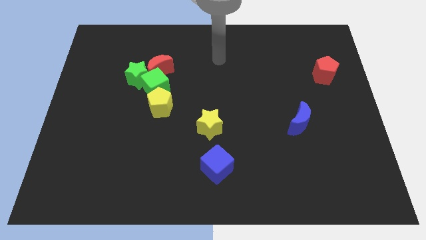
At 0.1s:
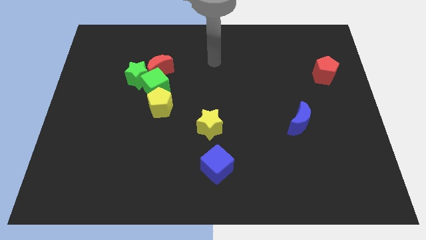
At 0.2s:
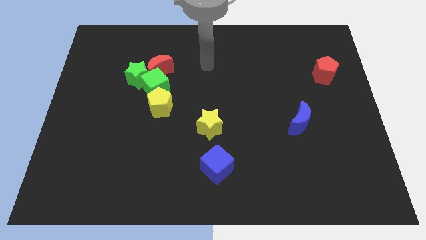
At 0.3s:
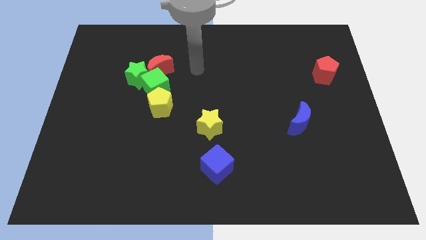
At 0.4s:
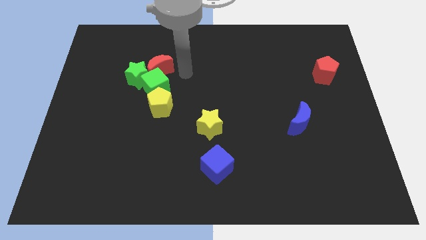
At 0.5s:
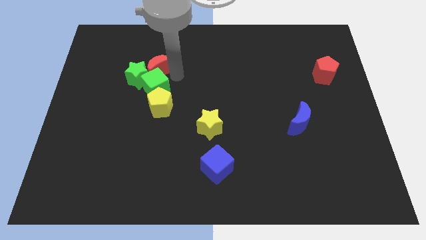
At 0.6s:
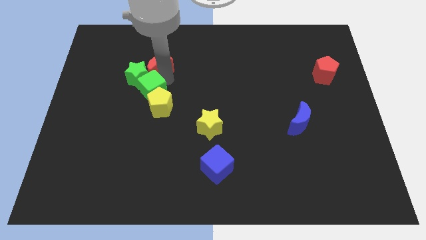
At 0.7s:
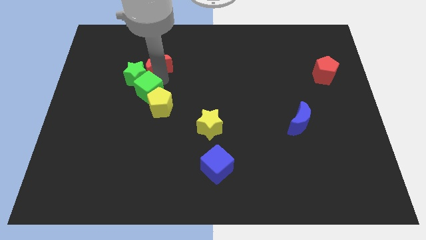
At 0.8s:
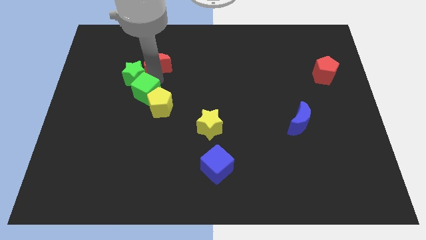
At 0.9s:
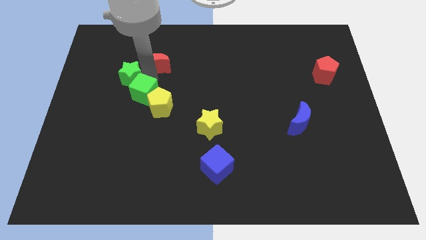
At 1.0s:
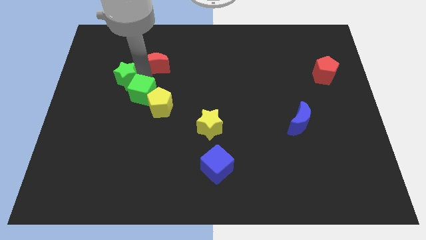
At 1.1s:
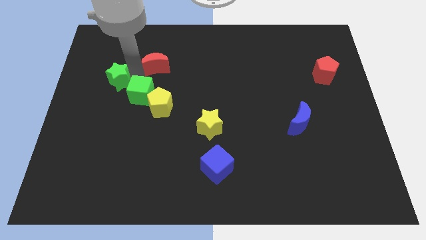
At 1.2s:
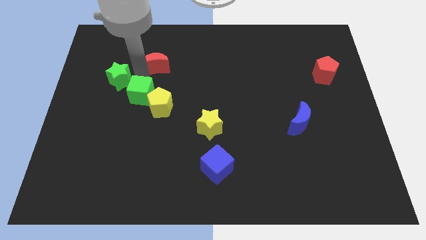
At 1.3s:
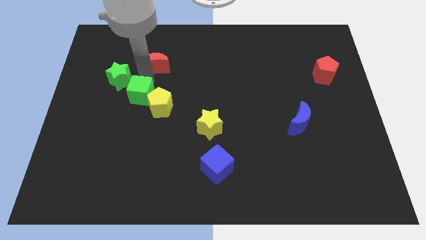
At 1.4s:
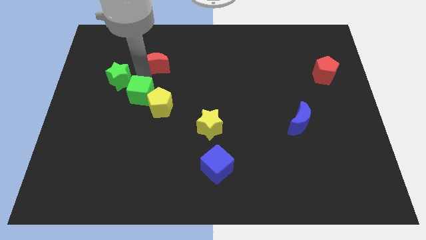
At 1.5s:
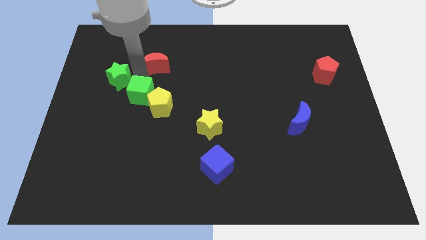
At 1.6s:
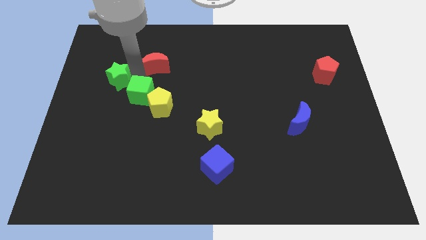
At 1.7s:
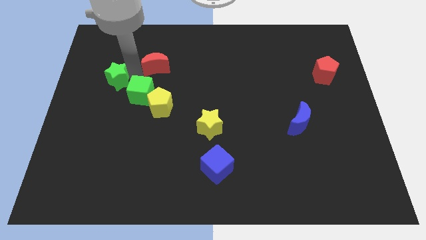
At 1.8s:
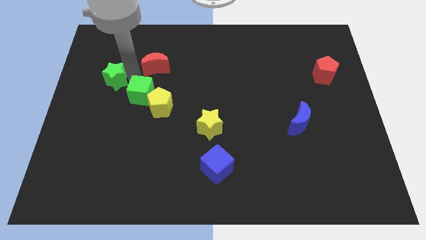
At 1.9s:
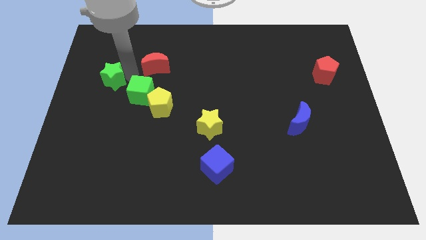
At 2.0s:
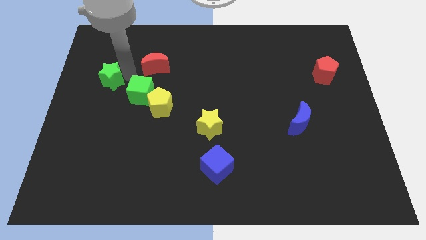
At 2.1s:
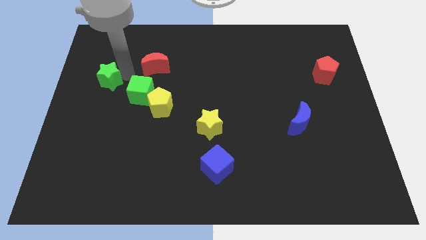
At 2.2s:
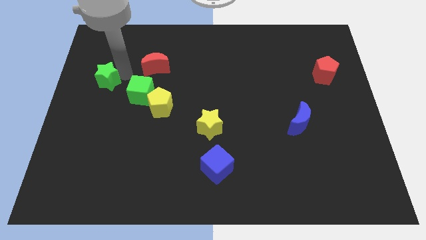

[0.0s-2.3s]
move the green star away from the green cube and red moon

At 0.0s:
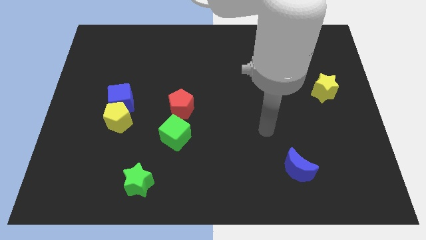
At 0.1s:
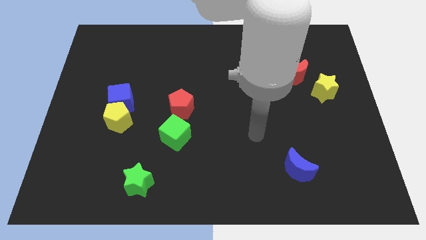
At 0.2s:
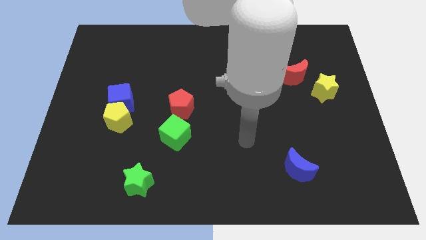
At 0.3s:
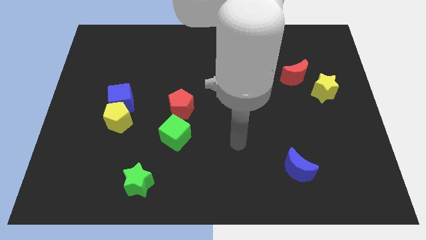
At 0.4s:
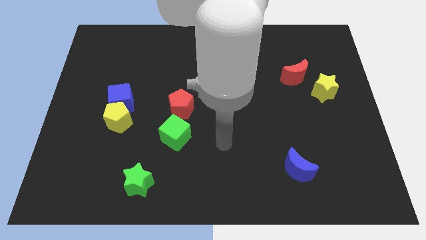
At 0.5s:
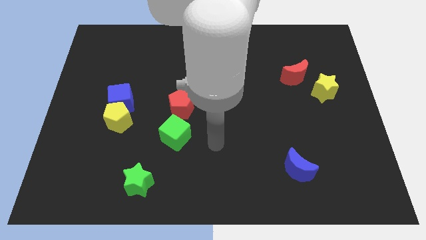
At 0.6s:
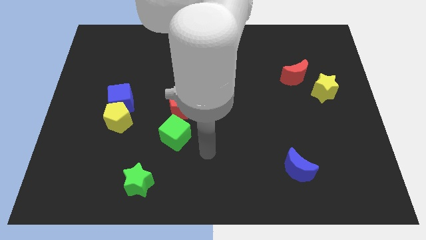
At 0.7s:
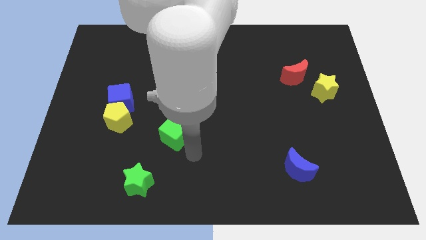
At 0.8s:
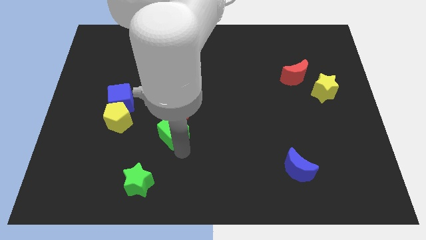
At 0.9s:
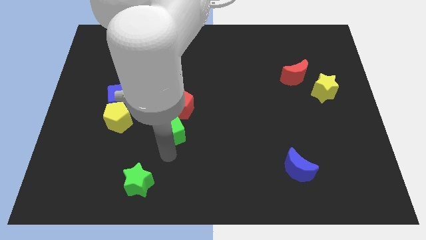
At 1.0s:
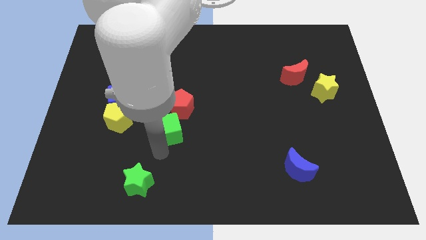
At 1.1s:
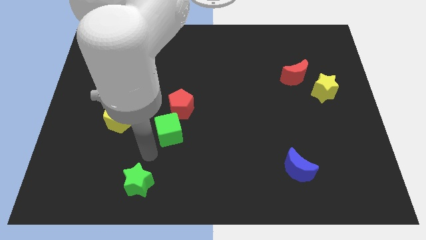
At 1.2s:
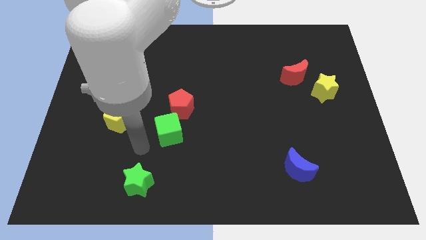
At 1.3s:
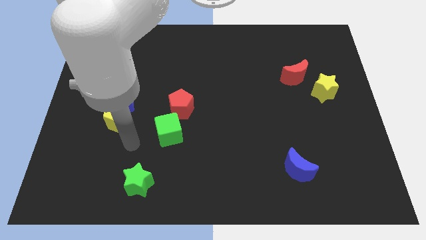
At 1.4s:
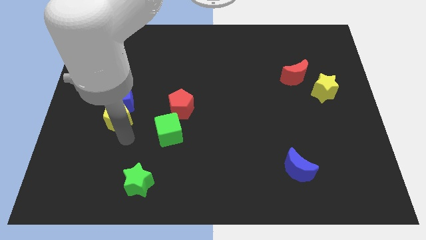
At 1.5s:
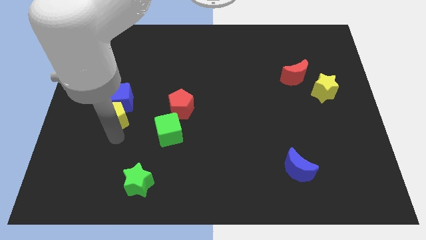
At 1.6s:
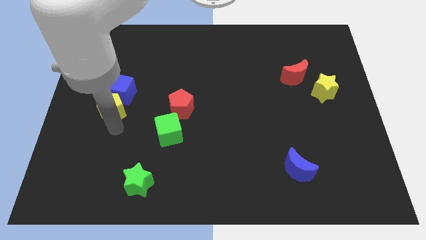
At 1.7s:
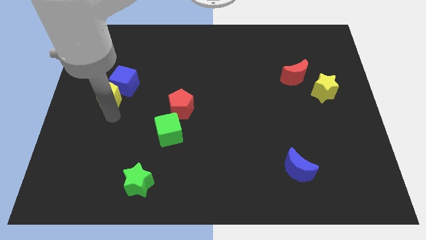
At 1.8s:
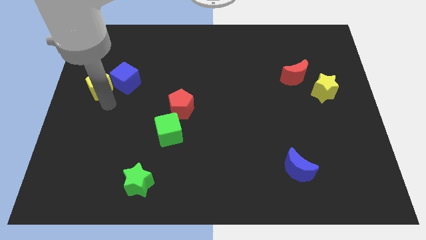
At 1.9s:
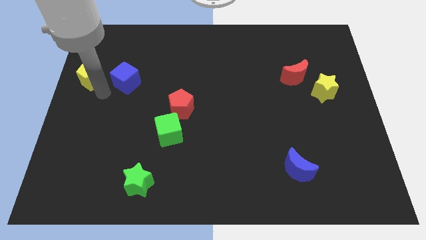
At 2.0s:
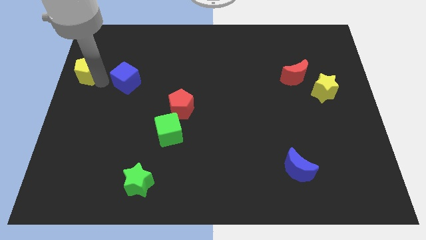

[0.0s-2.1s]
separate the blue cube from the yellow pentagon

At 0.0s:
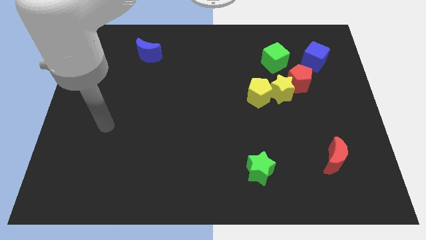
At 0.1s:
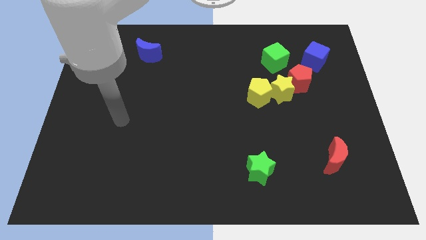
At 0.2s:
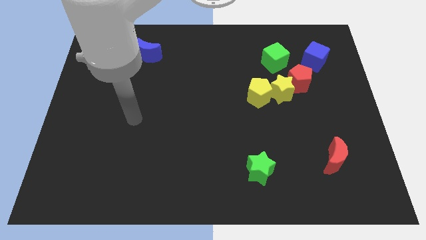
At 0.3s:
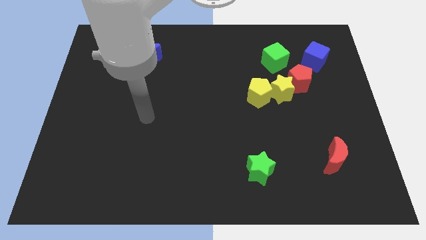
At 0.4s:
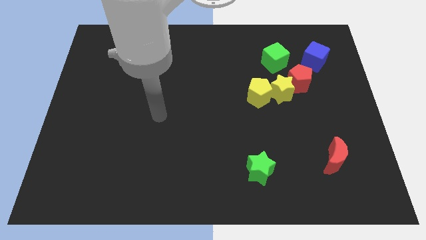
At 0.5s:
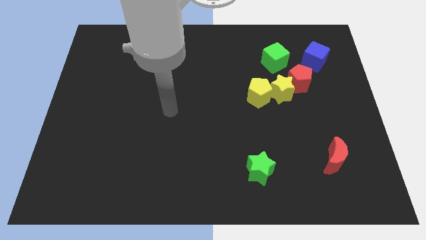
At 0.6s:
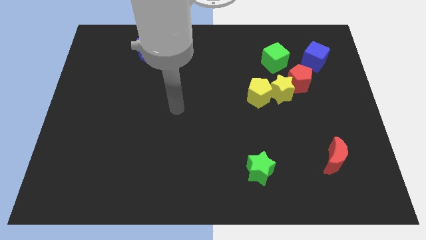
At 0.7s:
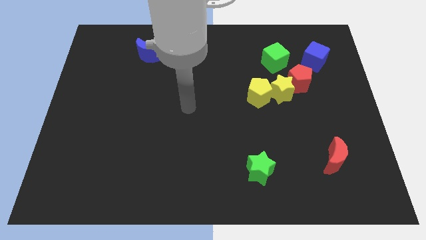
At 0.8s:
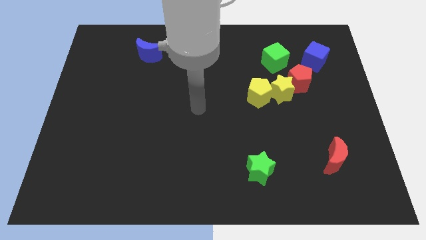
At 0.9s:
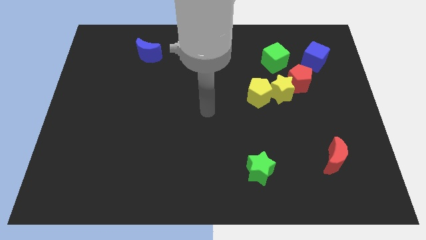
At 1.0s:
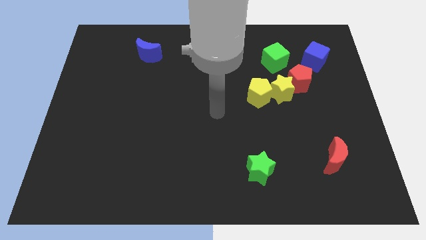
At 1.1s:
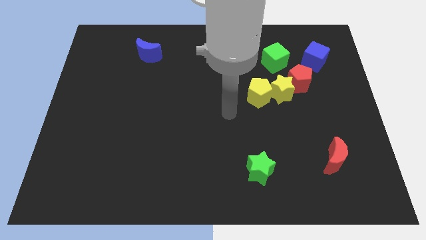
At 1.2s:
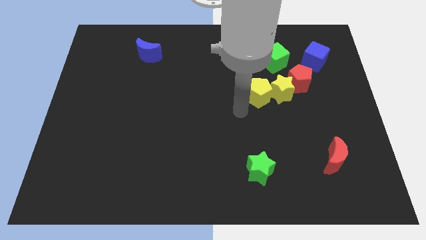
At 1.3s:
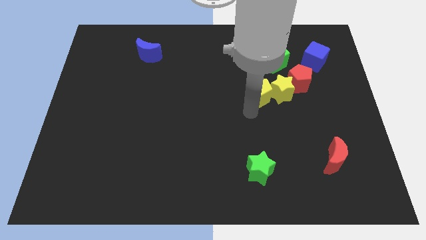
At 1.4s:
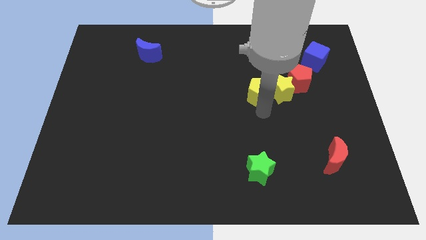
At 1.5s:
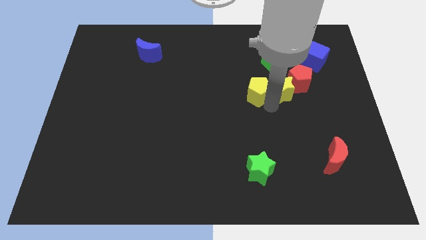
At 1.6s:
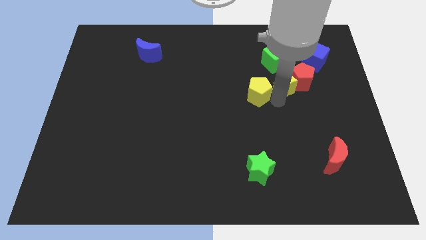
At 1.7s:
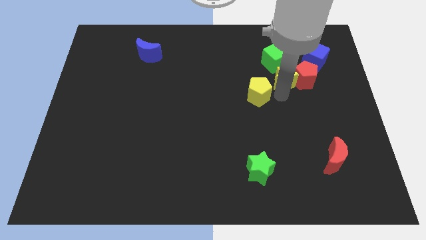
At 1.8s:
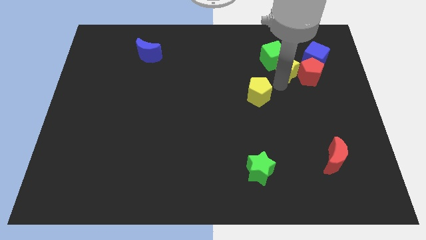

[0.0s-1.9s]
separate the yellow pentagon from the yellow star

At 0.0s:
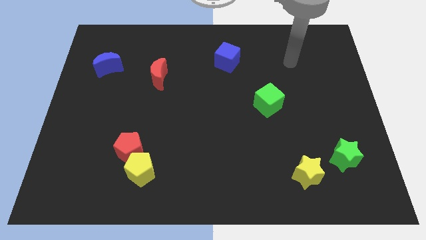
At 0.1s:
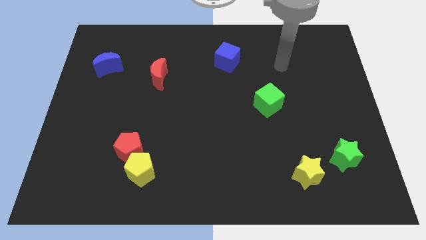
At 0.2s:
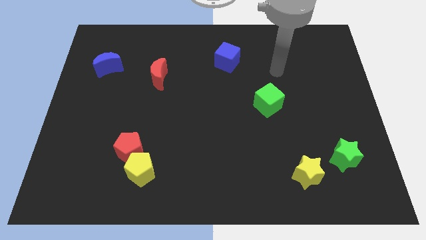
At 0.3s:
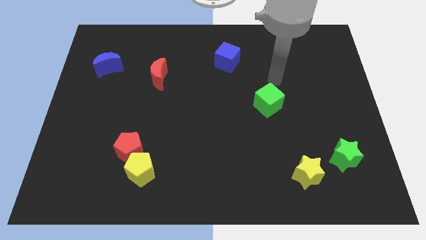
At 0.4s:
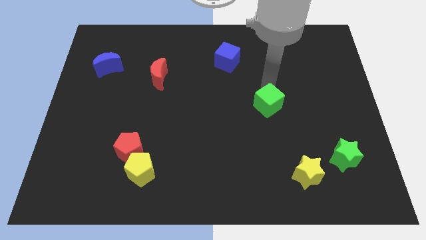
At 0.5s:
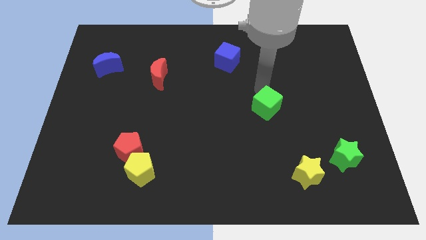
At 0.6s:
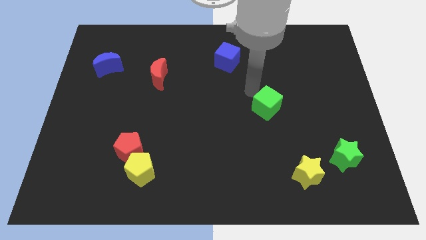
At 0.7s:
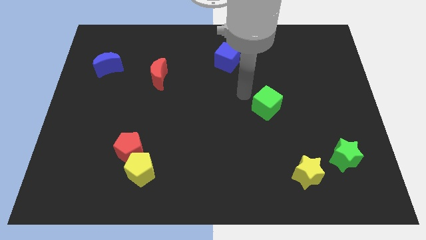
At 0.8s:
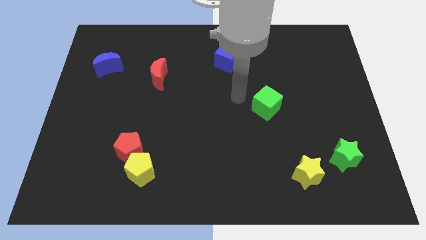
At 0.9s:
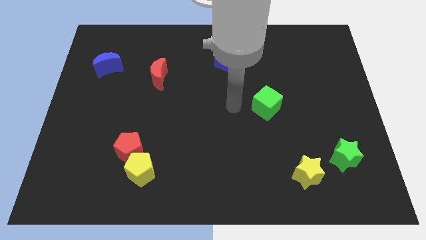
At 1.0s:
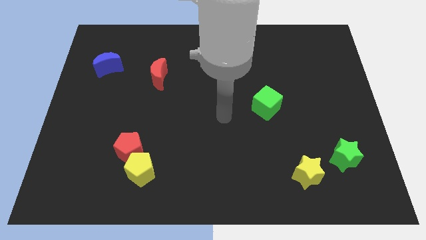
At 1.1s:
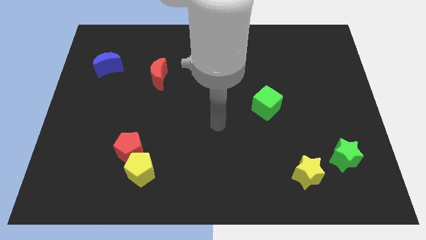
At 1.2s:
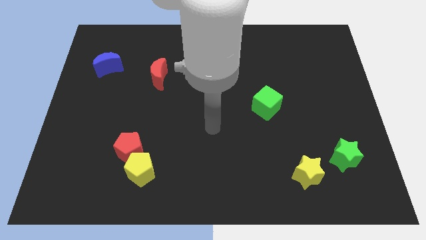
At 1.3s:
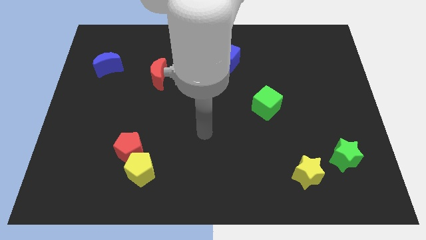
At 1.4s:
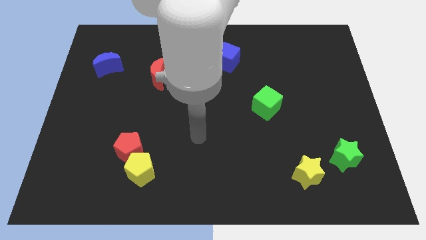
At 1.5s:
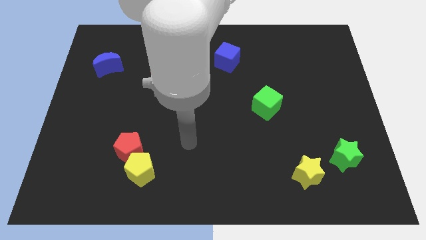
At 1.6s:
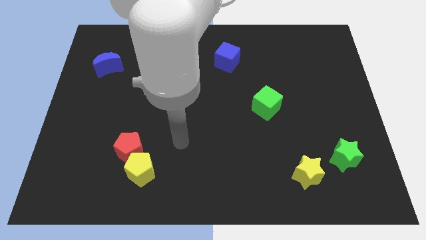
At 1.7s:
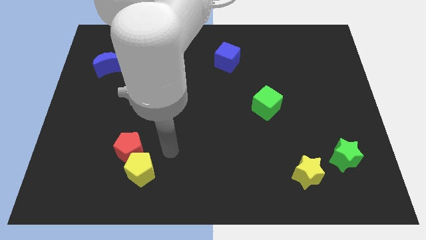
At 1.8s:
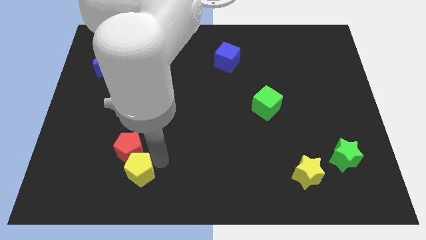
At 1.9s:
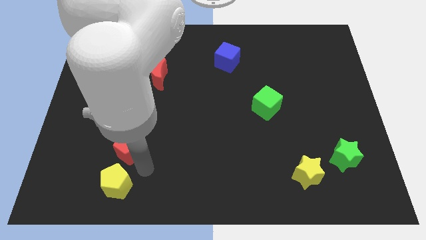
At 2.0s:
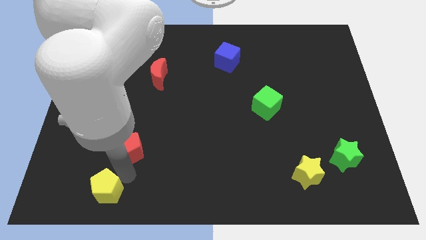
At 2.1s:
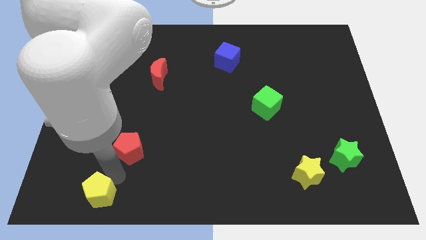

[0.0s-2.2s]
pull the red pentagon apart from the yellow pentagon

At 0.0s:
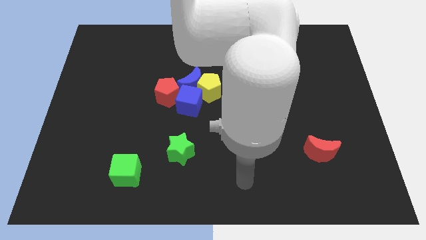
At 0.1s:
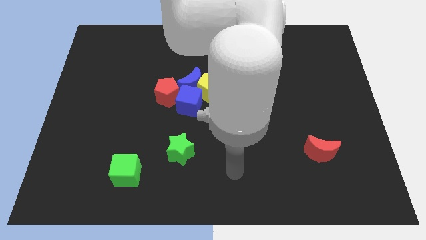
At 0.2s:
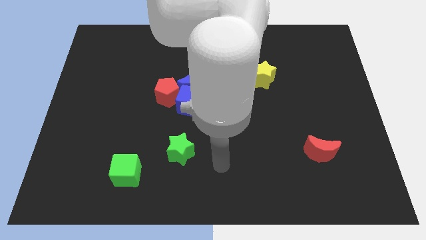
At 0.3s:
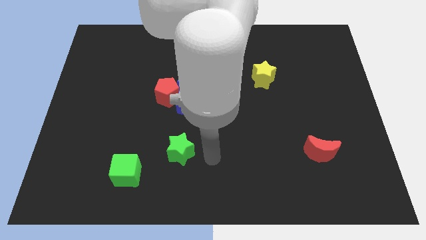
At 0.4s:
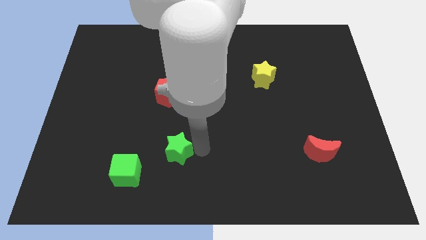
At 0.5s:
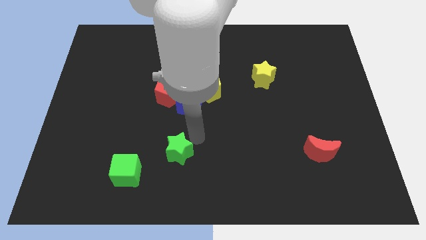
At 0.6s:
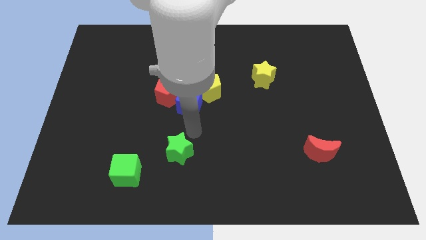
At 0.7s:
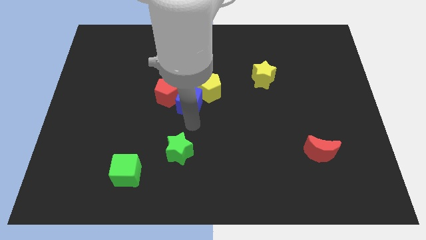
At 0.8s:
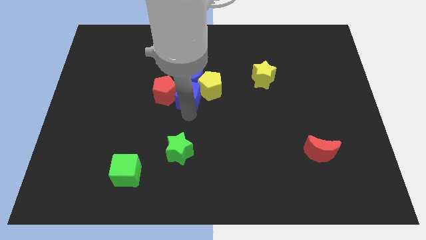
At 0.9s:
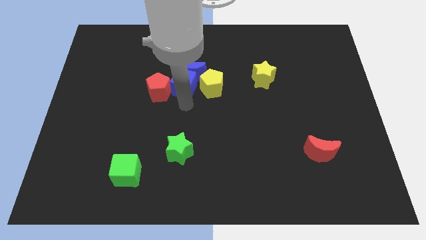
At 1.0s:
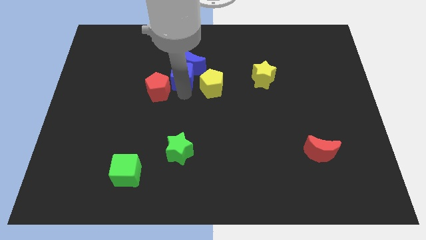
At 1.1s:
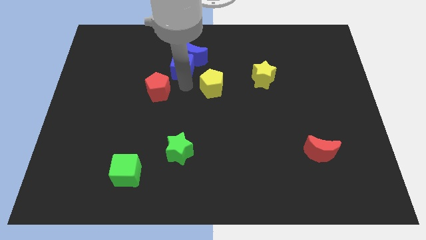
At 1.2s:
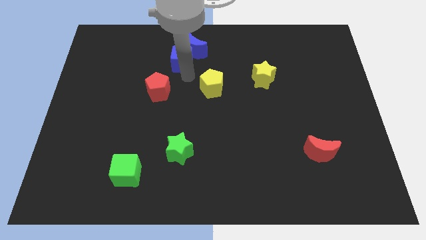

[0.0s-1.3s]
separate the blue moon from the yellow pentagon, blue cube, and red pentagon
